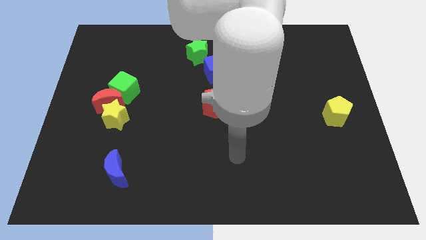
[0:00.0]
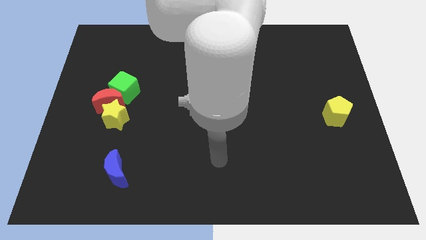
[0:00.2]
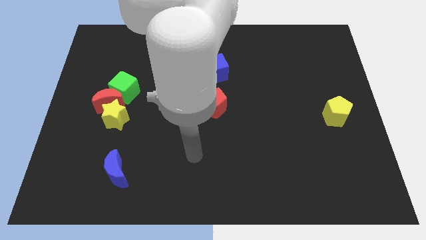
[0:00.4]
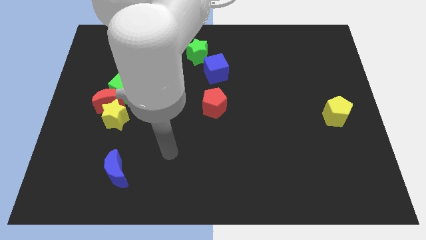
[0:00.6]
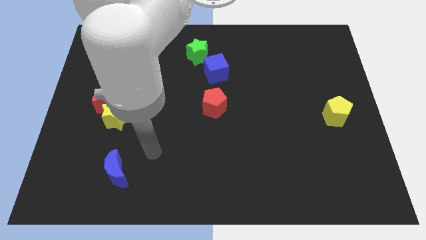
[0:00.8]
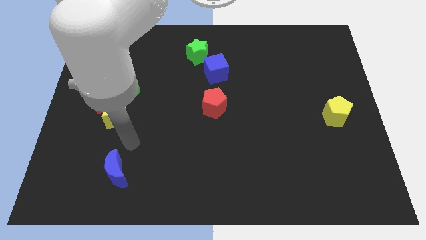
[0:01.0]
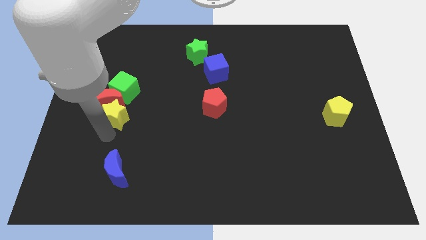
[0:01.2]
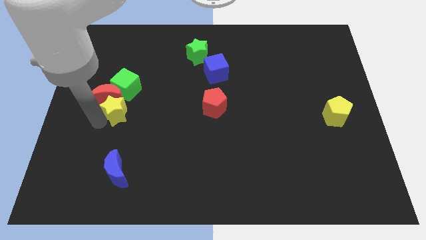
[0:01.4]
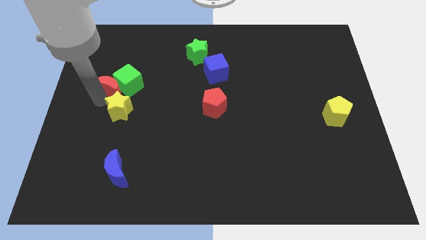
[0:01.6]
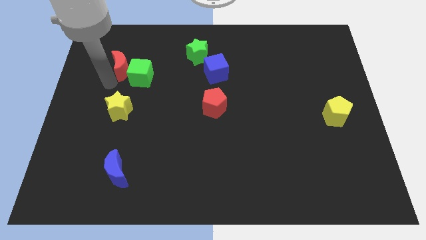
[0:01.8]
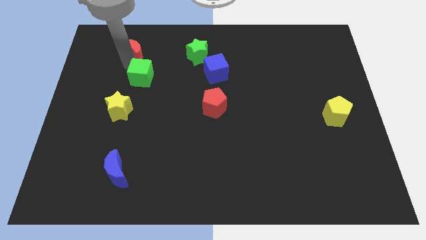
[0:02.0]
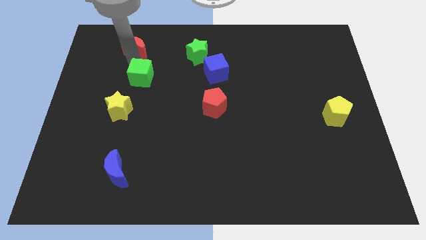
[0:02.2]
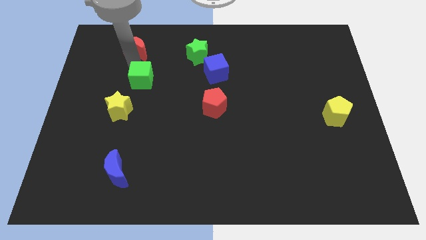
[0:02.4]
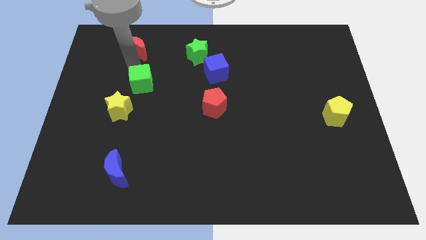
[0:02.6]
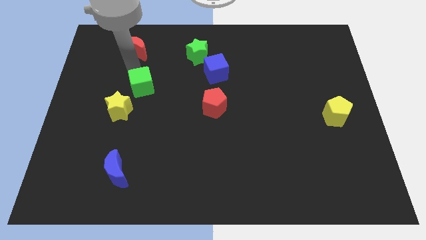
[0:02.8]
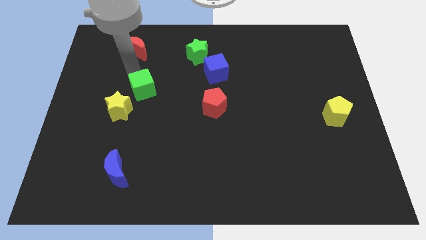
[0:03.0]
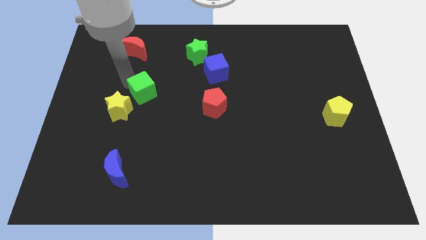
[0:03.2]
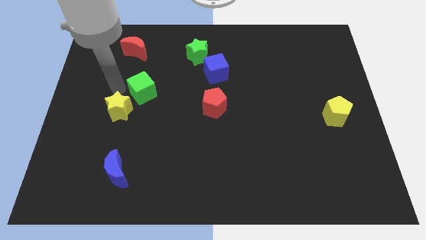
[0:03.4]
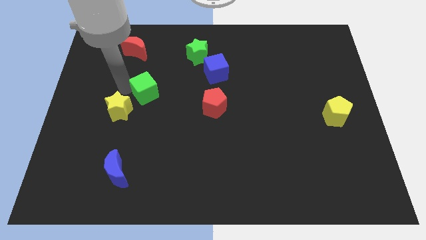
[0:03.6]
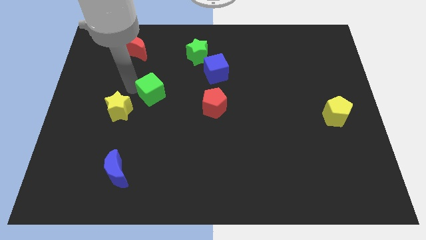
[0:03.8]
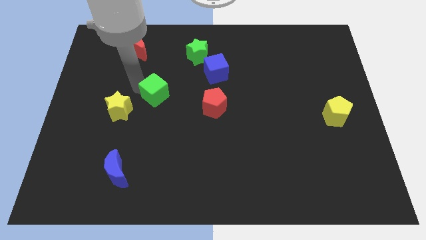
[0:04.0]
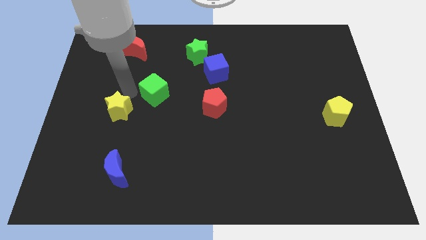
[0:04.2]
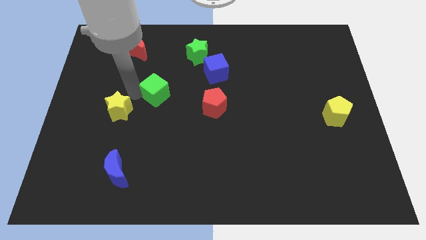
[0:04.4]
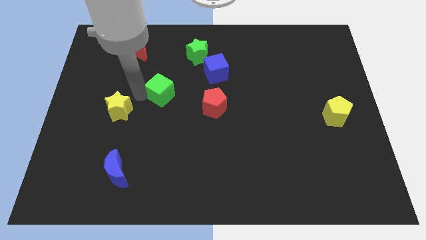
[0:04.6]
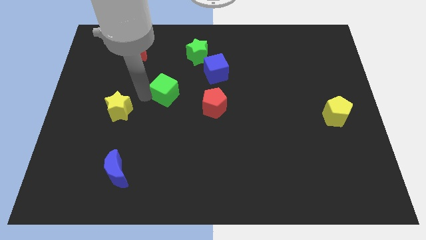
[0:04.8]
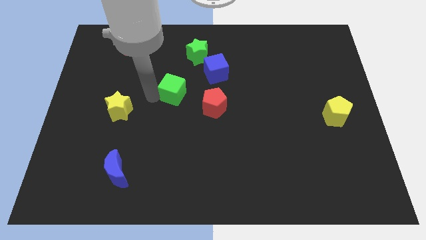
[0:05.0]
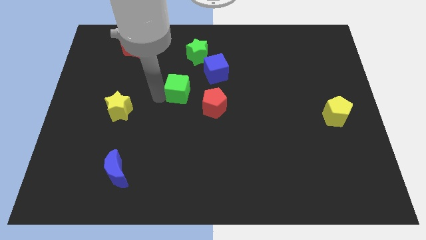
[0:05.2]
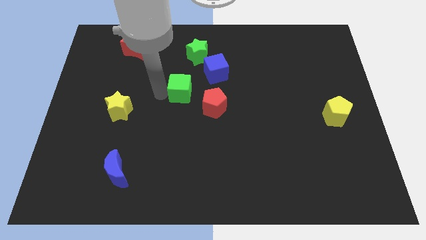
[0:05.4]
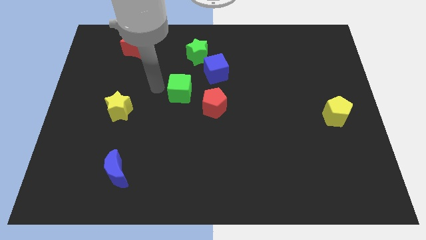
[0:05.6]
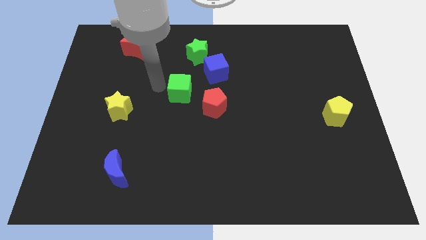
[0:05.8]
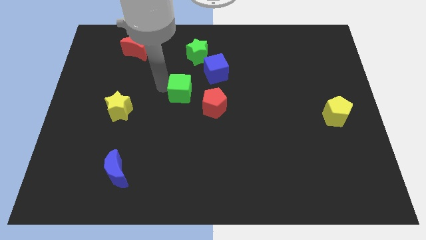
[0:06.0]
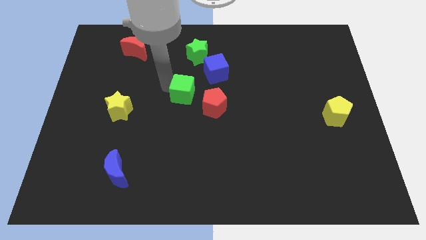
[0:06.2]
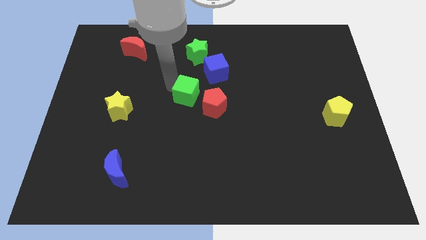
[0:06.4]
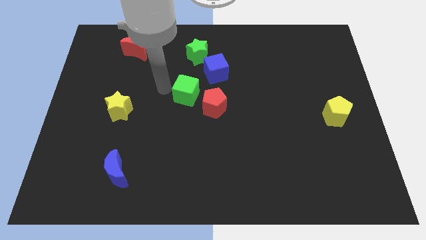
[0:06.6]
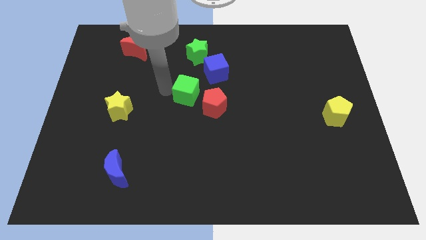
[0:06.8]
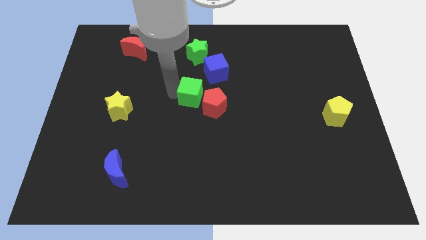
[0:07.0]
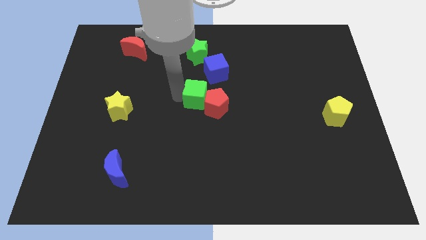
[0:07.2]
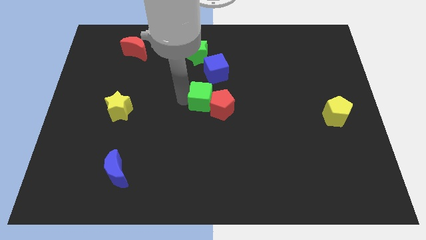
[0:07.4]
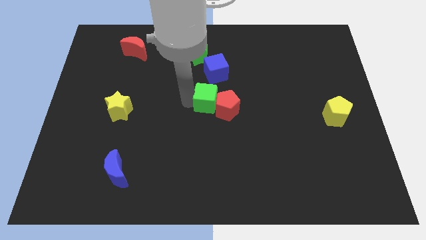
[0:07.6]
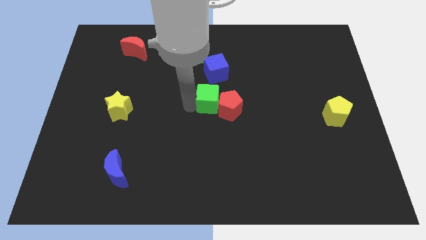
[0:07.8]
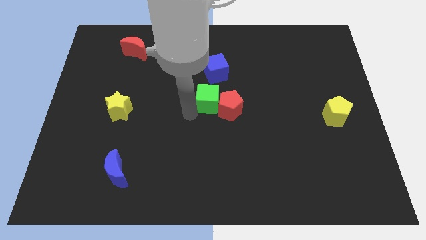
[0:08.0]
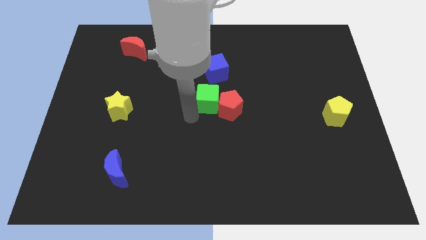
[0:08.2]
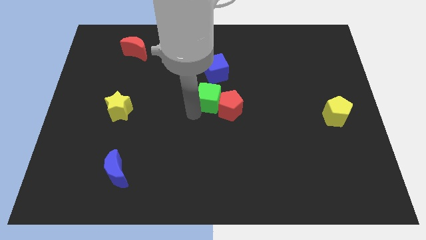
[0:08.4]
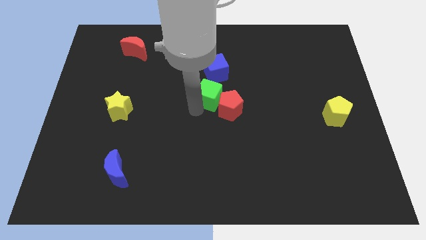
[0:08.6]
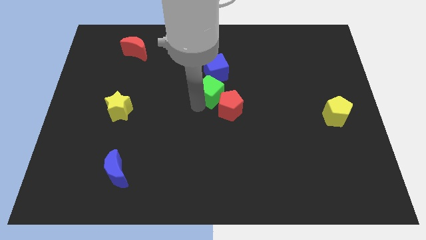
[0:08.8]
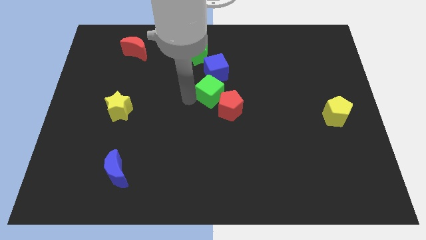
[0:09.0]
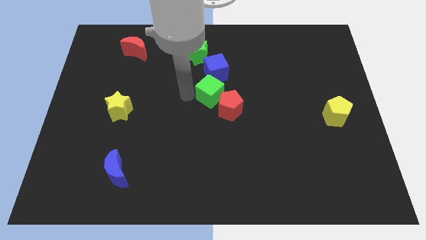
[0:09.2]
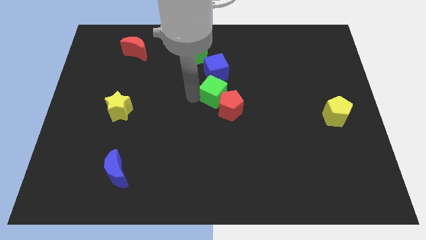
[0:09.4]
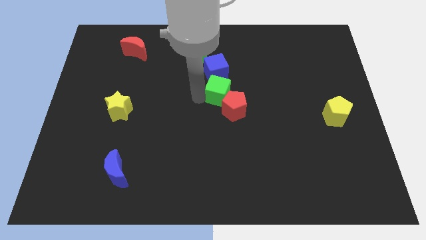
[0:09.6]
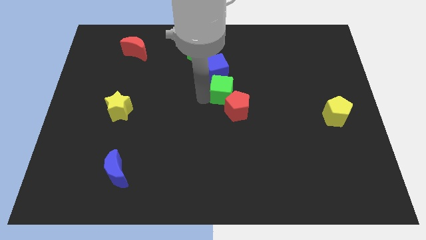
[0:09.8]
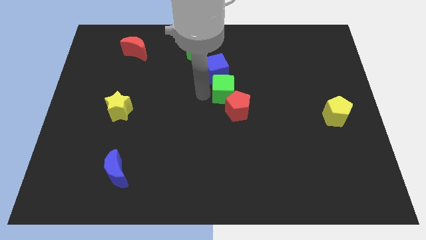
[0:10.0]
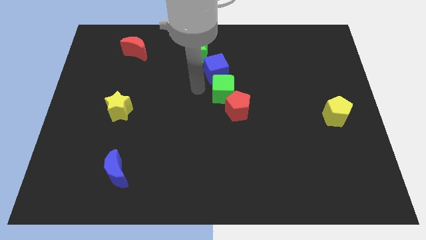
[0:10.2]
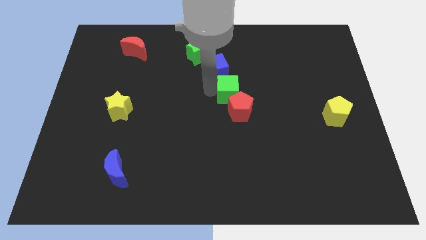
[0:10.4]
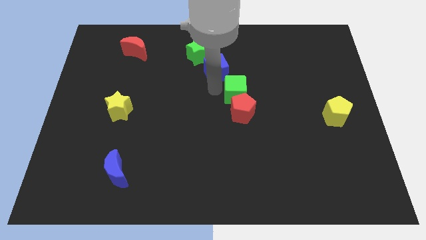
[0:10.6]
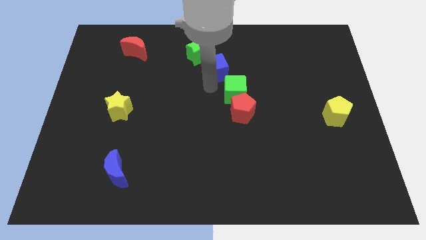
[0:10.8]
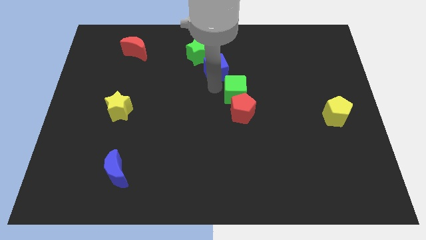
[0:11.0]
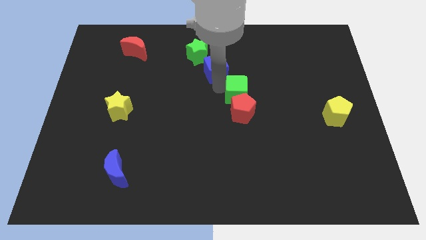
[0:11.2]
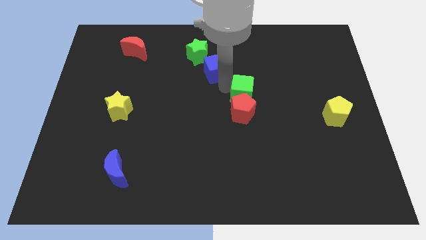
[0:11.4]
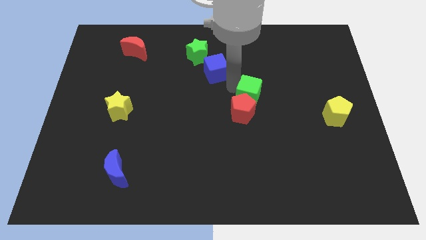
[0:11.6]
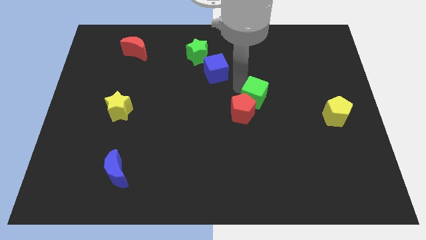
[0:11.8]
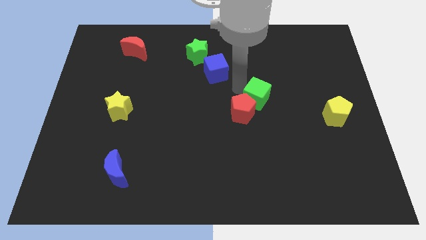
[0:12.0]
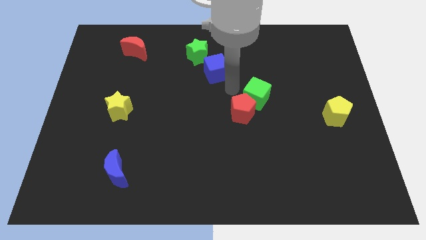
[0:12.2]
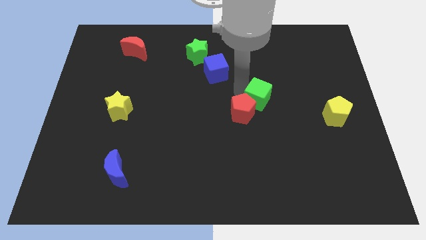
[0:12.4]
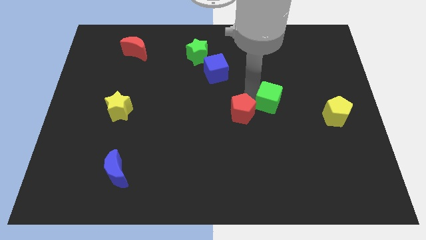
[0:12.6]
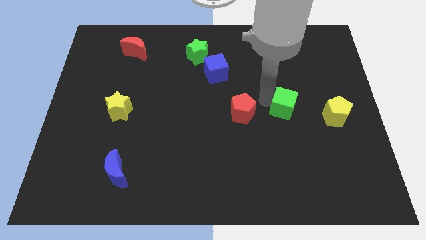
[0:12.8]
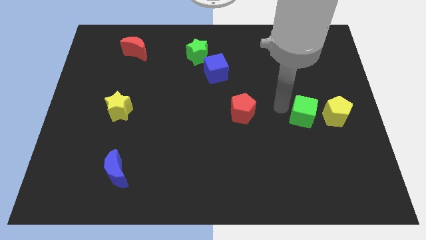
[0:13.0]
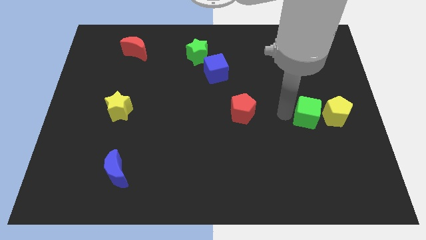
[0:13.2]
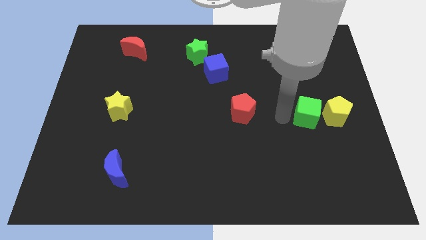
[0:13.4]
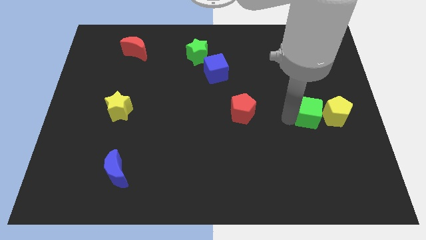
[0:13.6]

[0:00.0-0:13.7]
push the green cube next to the yellow pentagon

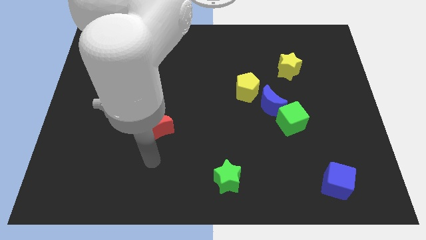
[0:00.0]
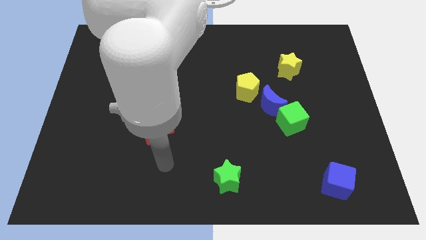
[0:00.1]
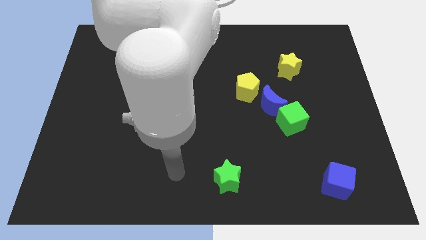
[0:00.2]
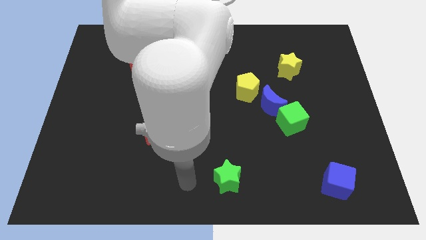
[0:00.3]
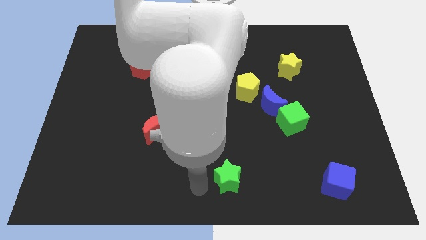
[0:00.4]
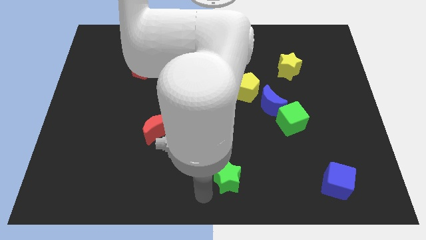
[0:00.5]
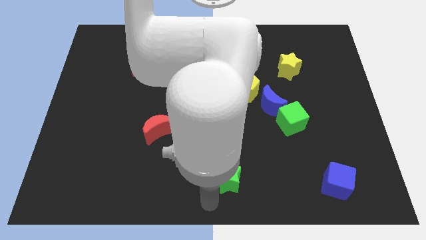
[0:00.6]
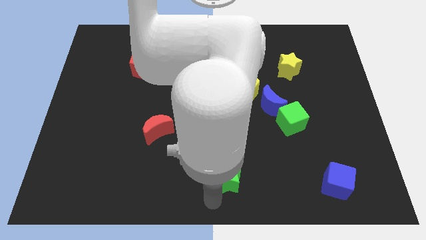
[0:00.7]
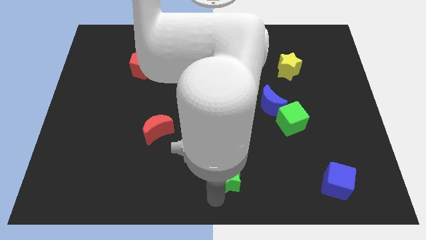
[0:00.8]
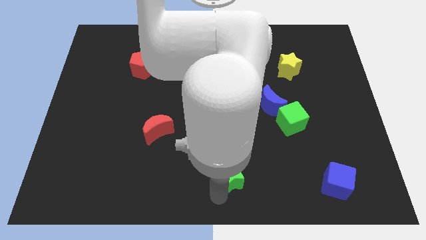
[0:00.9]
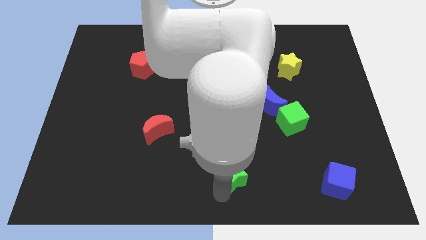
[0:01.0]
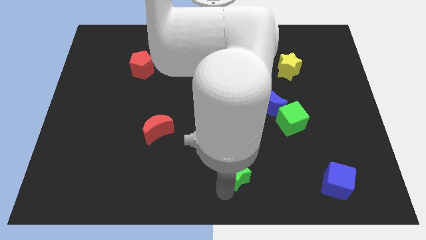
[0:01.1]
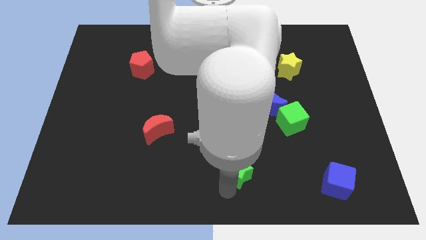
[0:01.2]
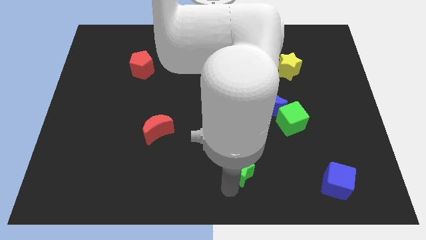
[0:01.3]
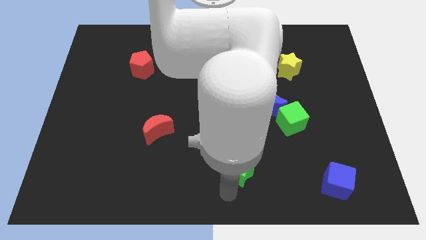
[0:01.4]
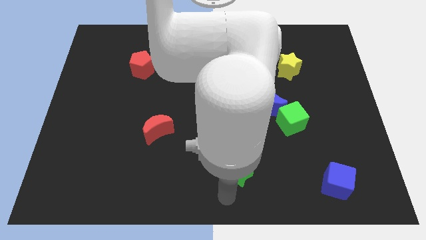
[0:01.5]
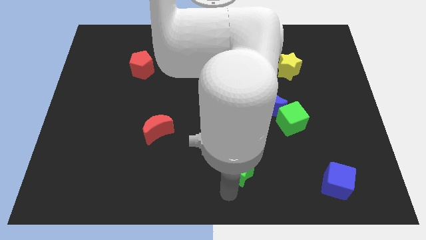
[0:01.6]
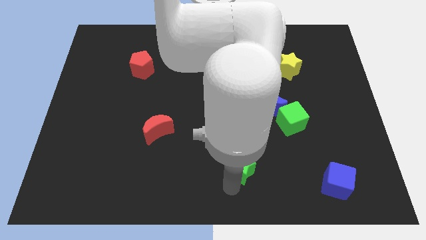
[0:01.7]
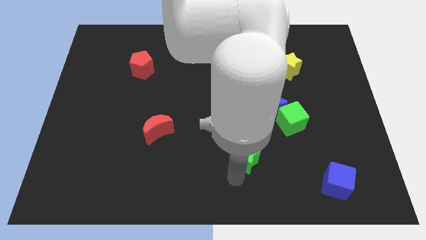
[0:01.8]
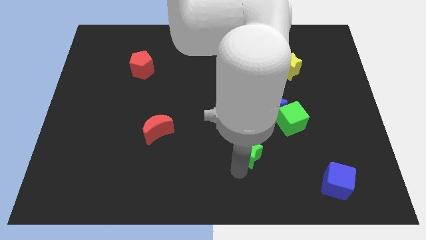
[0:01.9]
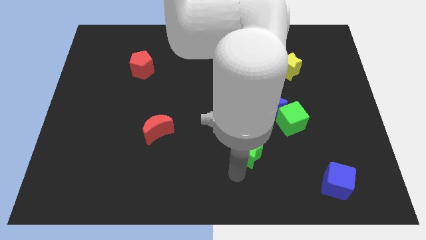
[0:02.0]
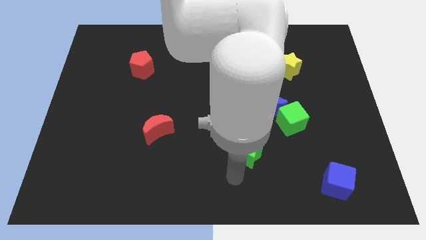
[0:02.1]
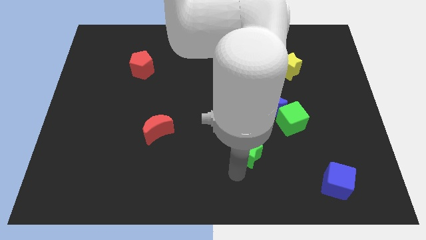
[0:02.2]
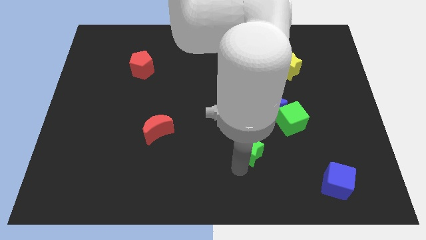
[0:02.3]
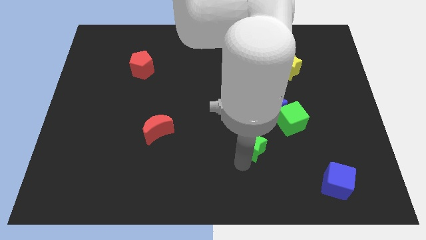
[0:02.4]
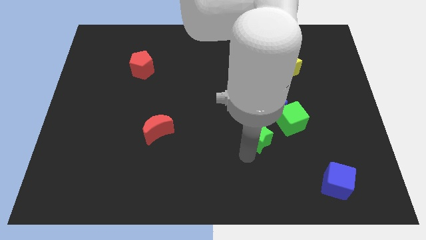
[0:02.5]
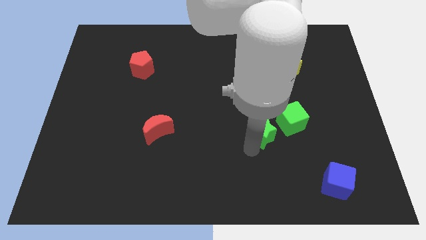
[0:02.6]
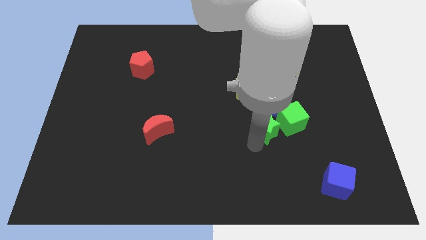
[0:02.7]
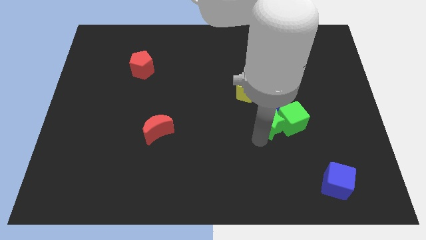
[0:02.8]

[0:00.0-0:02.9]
put the green star to the blue moon
